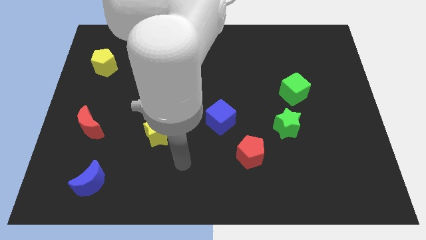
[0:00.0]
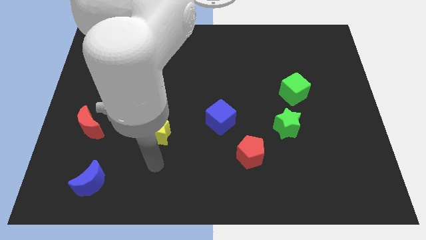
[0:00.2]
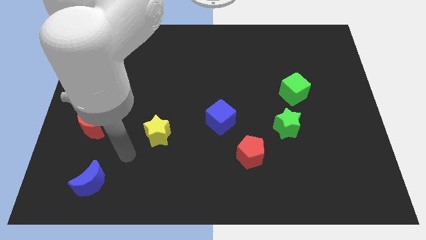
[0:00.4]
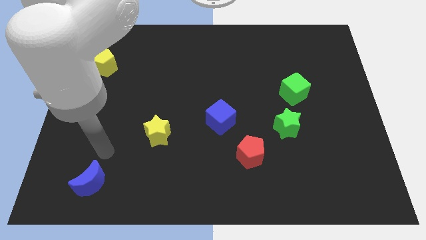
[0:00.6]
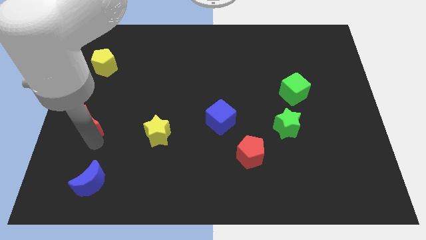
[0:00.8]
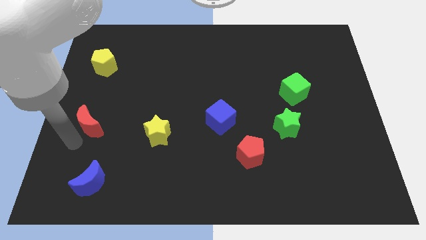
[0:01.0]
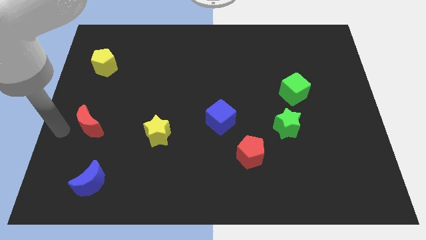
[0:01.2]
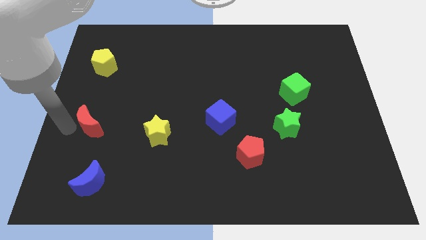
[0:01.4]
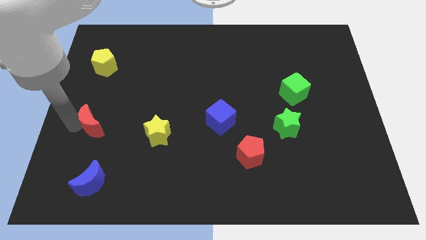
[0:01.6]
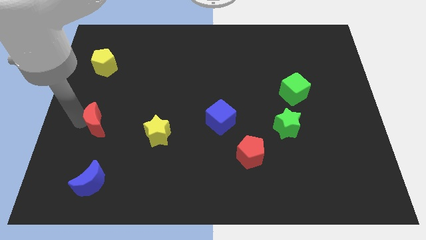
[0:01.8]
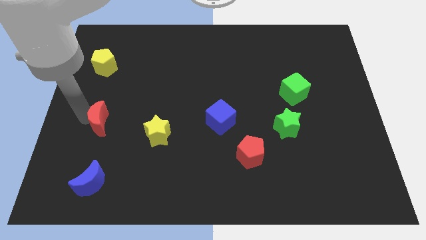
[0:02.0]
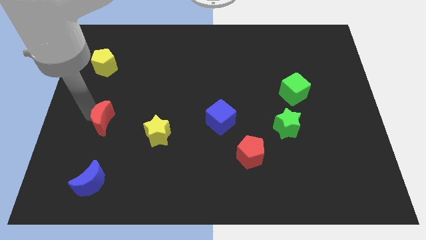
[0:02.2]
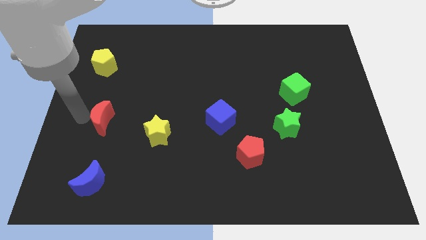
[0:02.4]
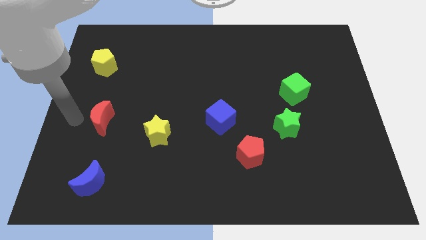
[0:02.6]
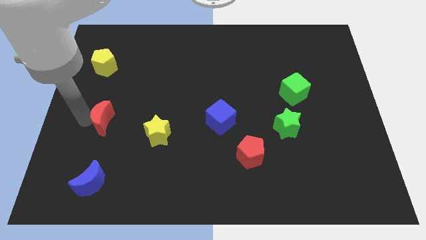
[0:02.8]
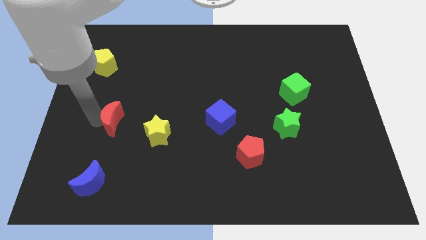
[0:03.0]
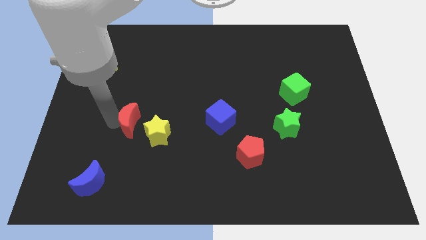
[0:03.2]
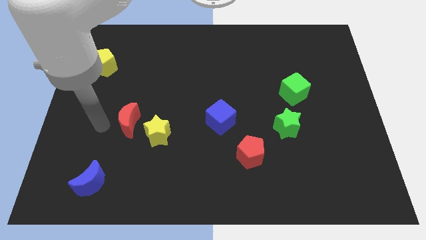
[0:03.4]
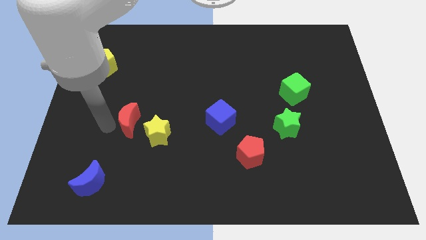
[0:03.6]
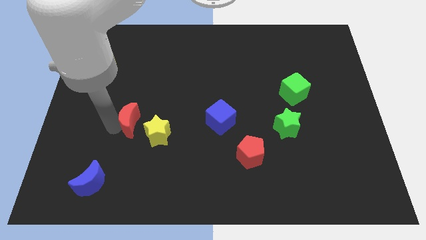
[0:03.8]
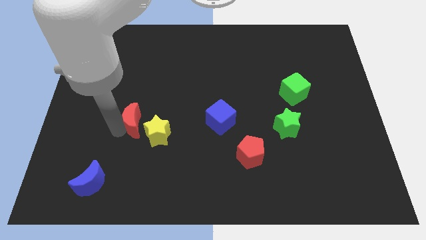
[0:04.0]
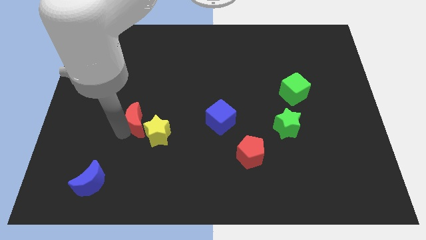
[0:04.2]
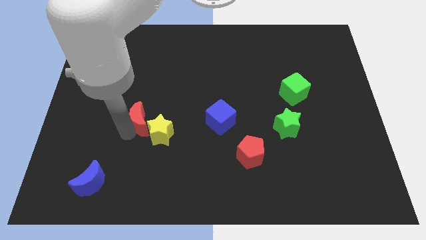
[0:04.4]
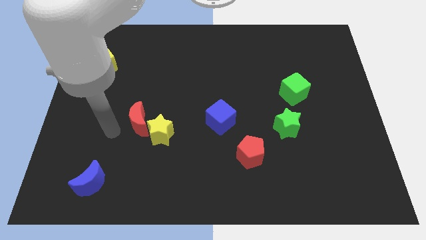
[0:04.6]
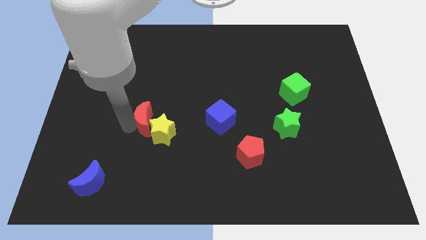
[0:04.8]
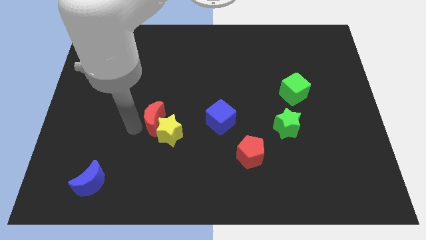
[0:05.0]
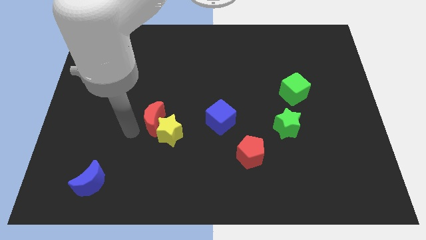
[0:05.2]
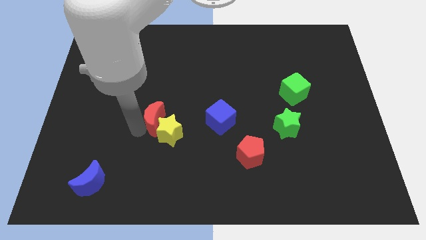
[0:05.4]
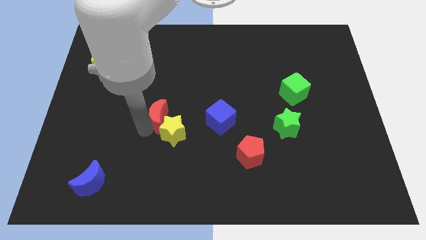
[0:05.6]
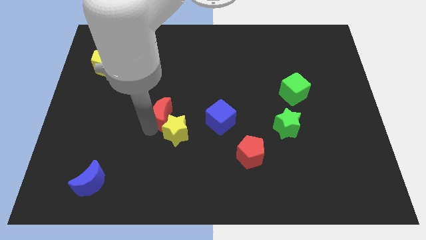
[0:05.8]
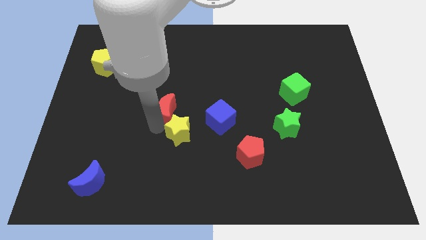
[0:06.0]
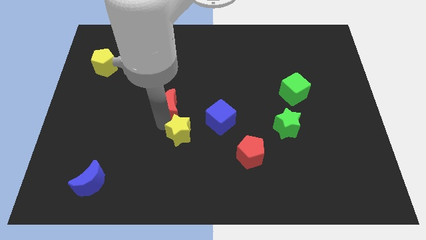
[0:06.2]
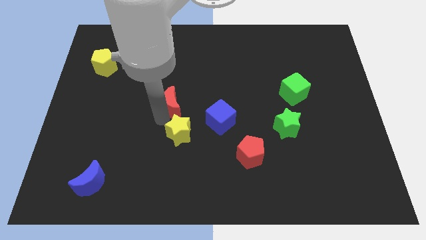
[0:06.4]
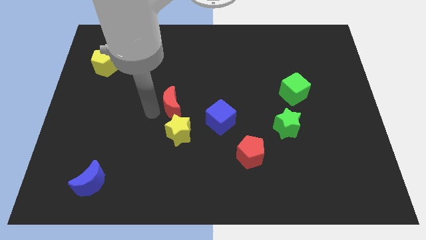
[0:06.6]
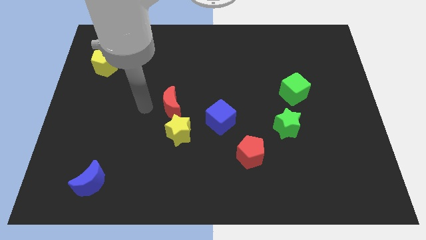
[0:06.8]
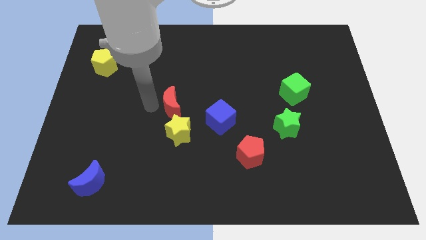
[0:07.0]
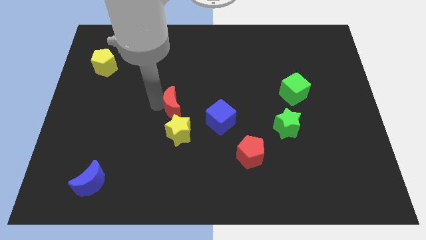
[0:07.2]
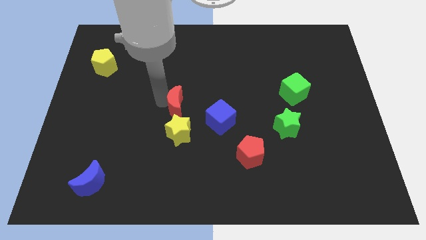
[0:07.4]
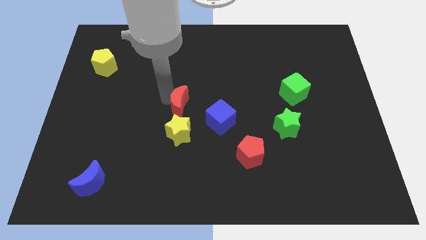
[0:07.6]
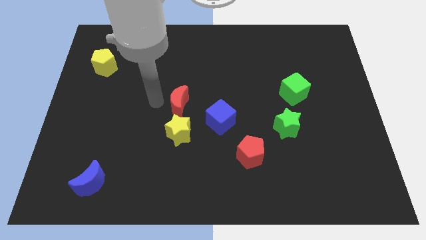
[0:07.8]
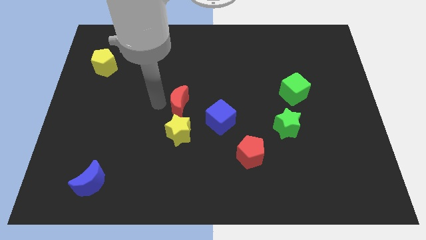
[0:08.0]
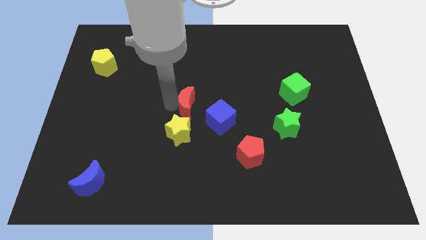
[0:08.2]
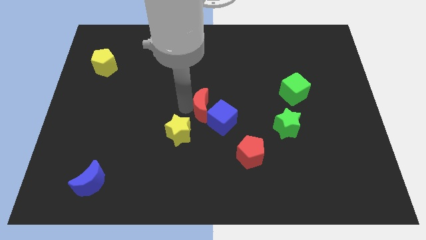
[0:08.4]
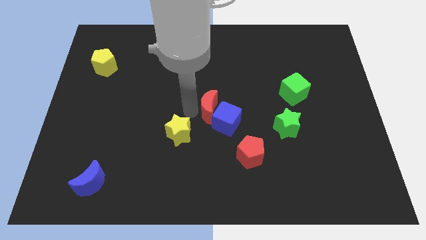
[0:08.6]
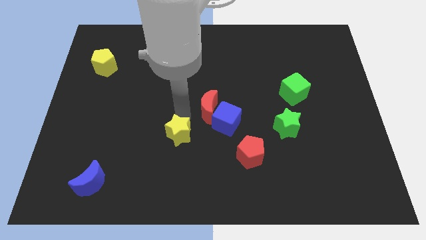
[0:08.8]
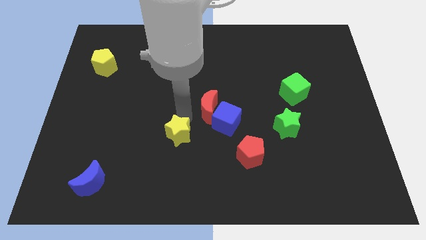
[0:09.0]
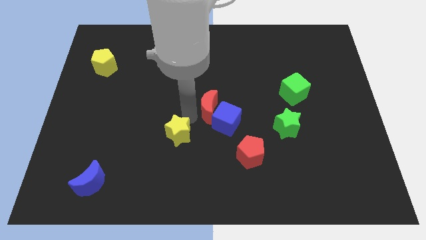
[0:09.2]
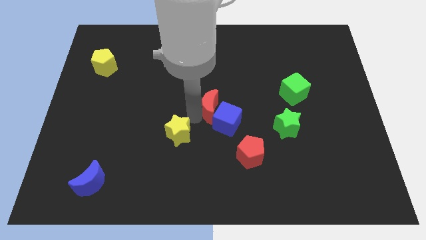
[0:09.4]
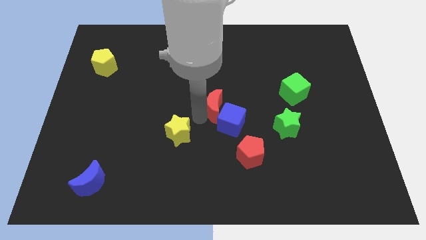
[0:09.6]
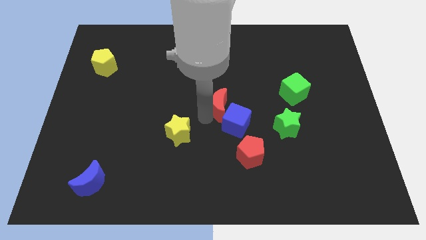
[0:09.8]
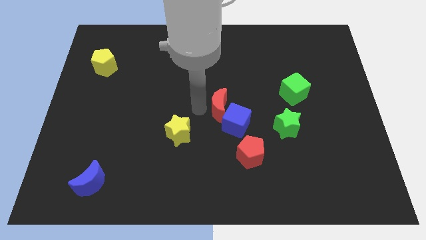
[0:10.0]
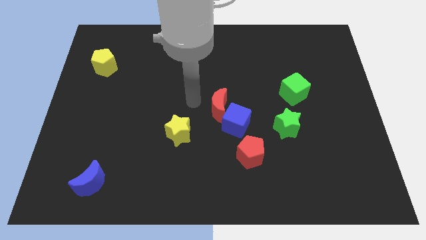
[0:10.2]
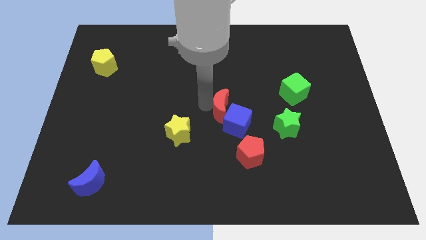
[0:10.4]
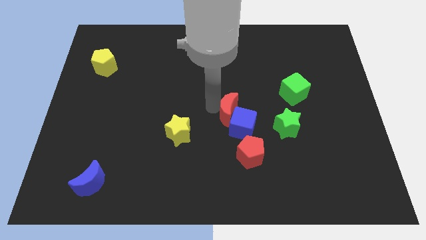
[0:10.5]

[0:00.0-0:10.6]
move the red moon to the top side of the red pentagon

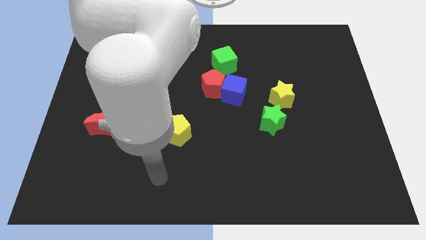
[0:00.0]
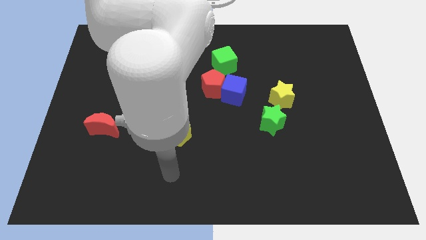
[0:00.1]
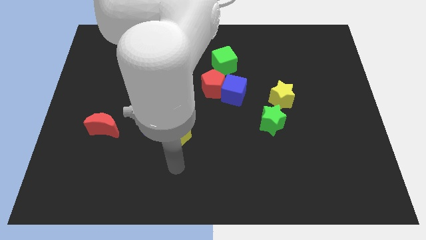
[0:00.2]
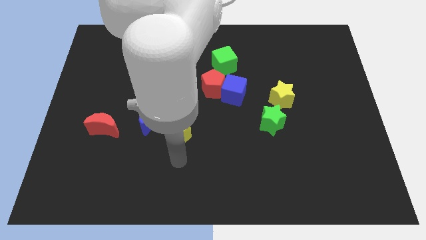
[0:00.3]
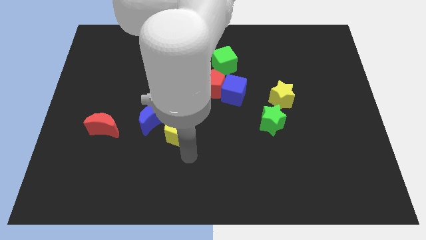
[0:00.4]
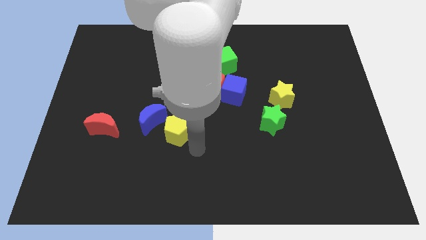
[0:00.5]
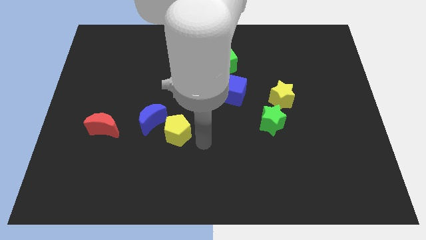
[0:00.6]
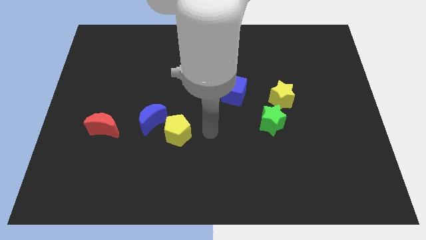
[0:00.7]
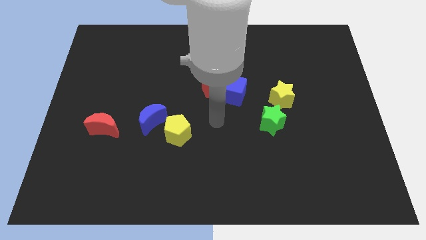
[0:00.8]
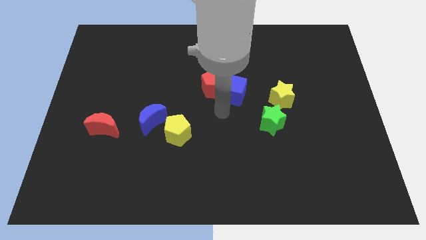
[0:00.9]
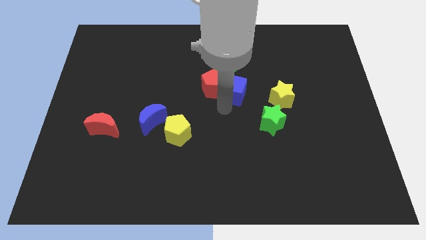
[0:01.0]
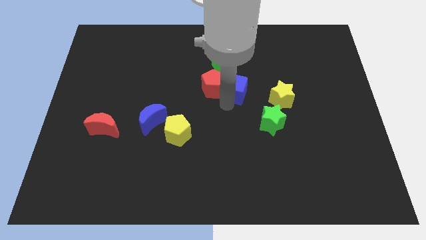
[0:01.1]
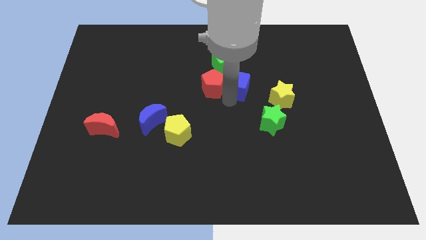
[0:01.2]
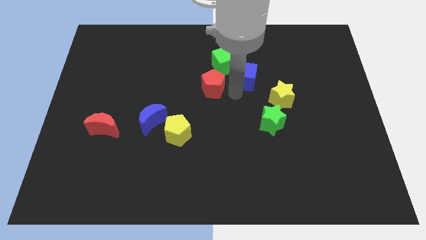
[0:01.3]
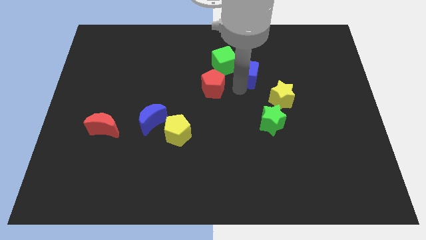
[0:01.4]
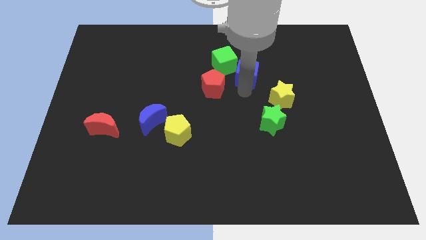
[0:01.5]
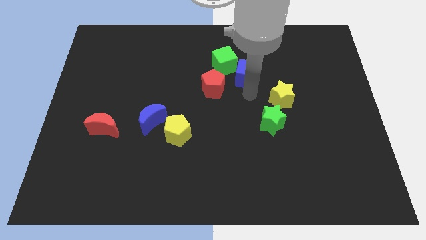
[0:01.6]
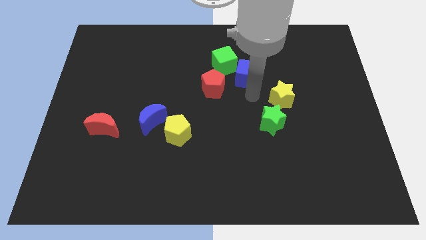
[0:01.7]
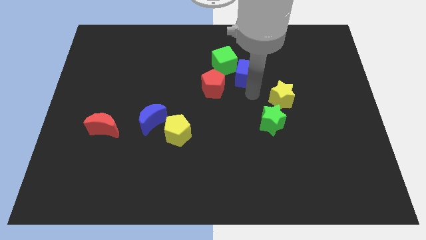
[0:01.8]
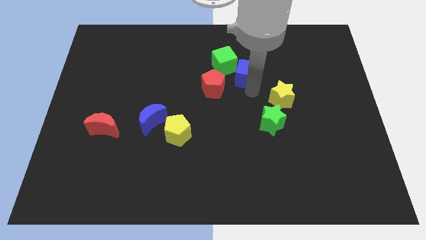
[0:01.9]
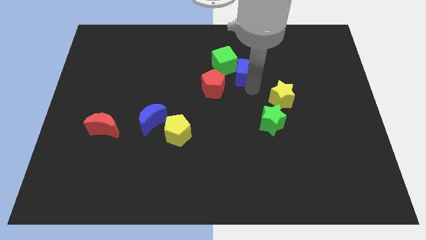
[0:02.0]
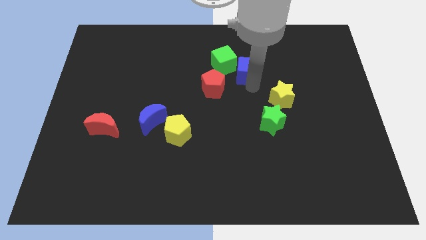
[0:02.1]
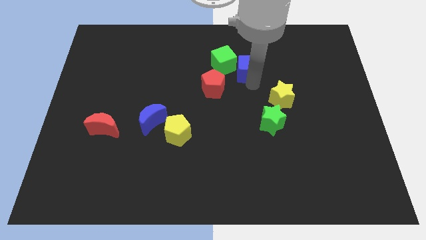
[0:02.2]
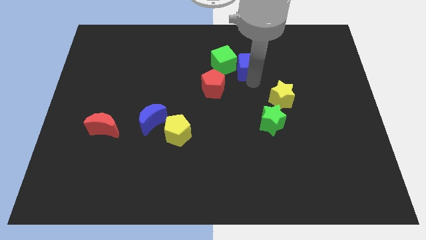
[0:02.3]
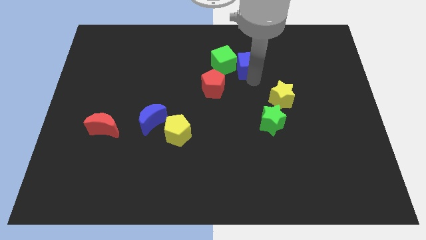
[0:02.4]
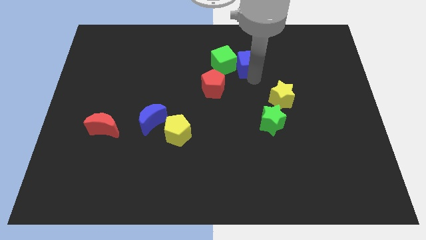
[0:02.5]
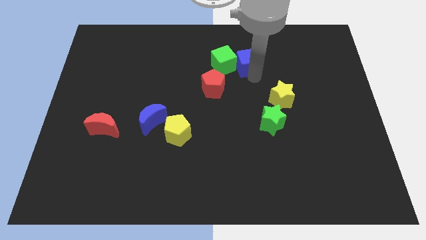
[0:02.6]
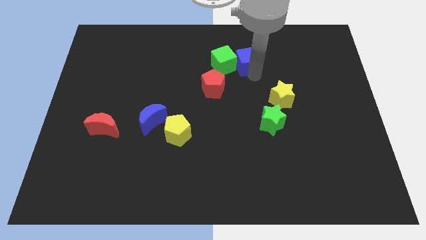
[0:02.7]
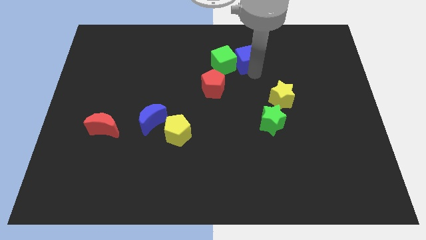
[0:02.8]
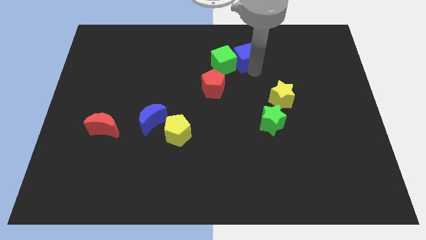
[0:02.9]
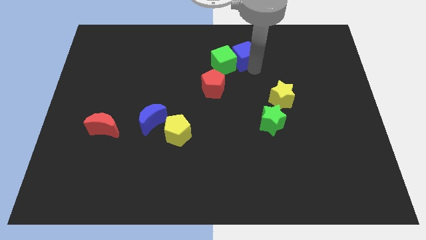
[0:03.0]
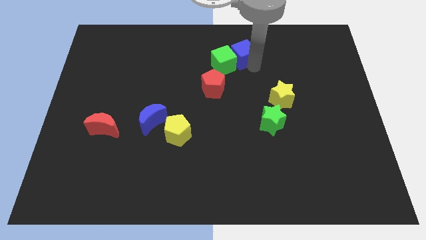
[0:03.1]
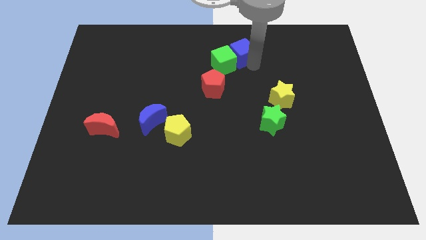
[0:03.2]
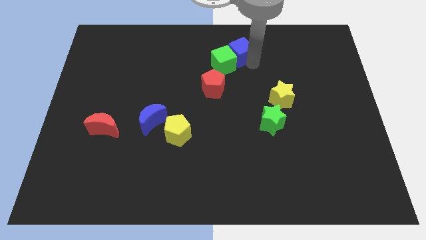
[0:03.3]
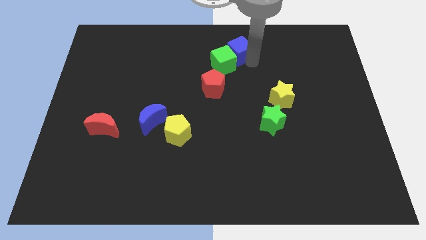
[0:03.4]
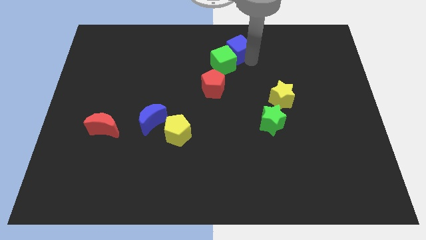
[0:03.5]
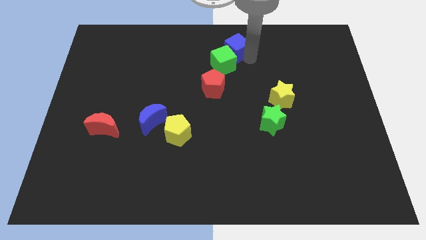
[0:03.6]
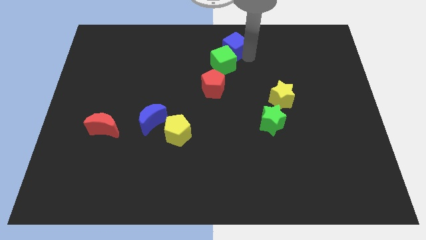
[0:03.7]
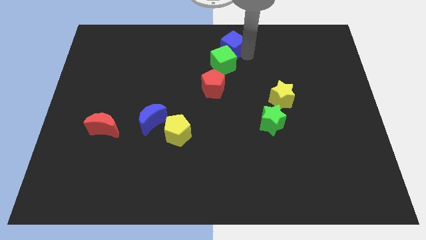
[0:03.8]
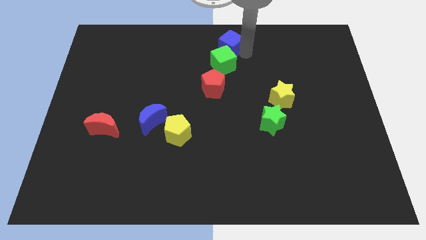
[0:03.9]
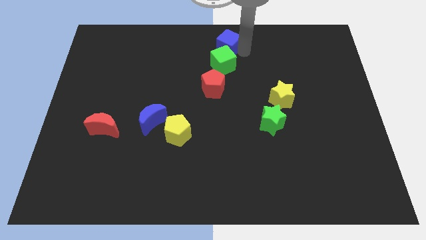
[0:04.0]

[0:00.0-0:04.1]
push the blue cube to the top side of the red pentagon
